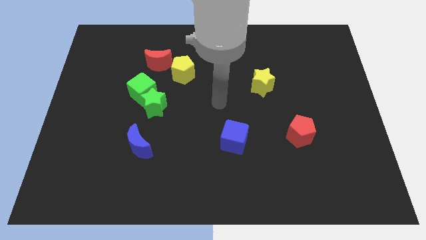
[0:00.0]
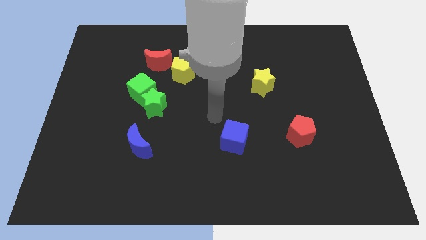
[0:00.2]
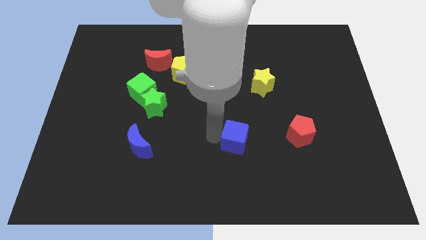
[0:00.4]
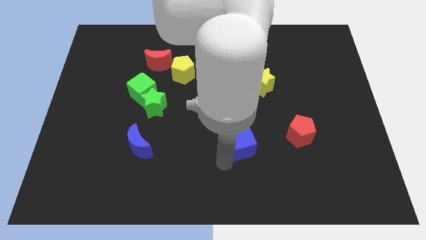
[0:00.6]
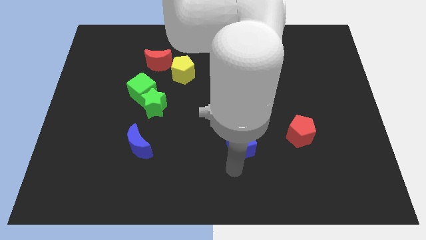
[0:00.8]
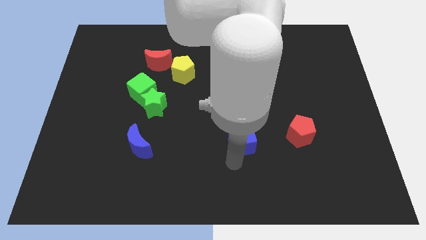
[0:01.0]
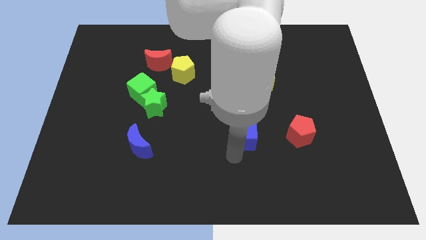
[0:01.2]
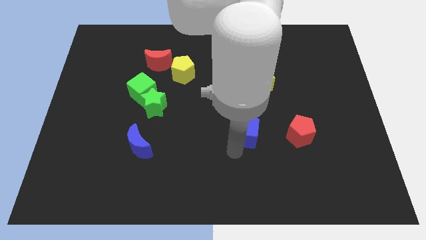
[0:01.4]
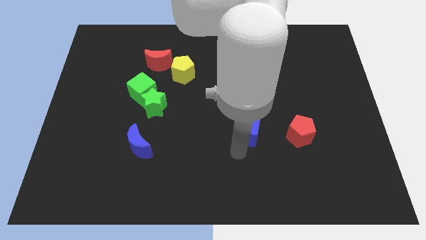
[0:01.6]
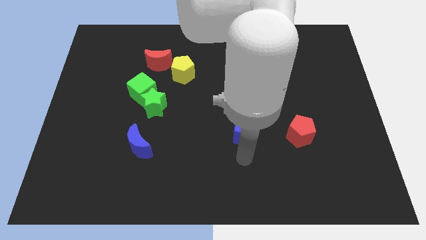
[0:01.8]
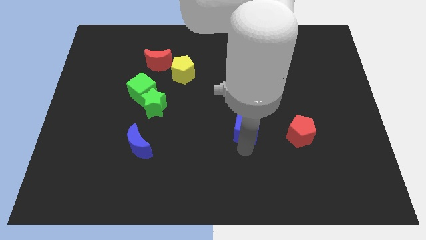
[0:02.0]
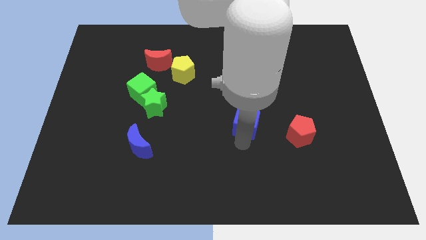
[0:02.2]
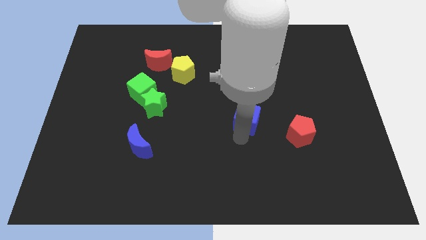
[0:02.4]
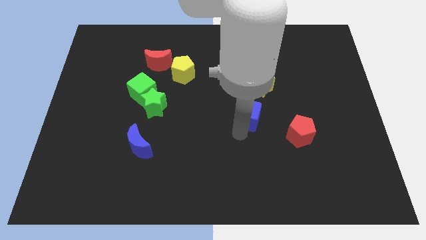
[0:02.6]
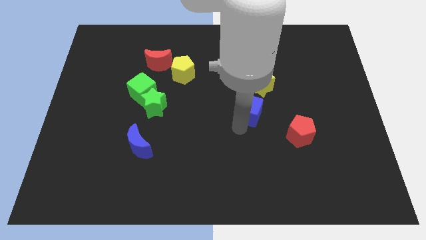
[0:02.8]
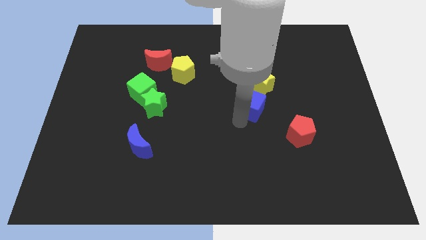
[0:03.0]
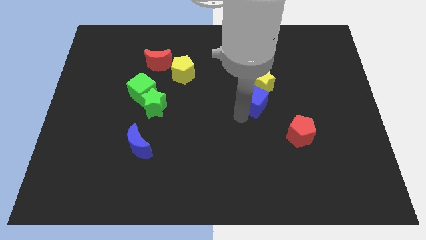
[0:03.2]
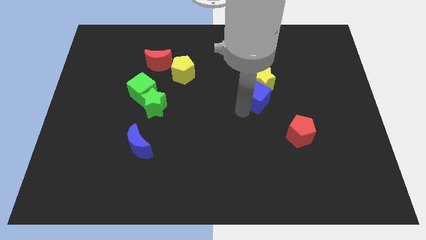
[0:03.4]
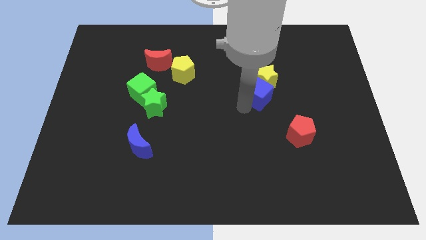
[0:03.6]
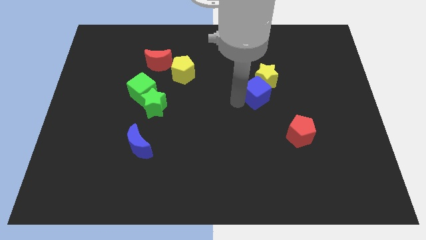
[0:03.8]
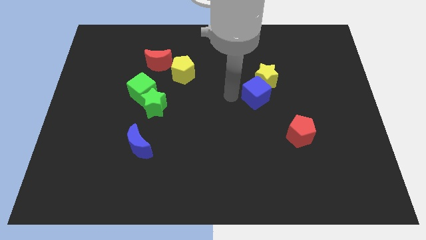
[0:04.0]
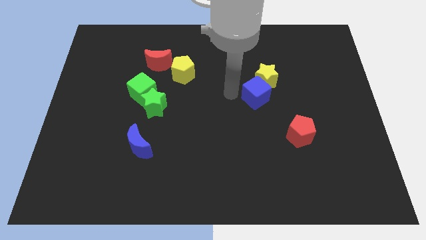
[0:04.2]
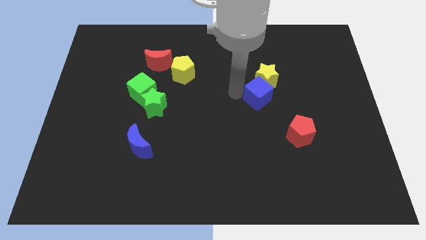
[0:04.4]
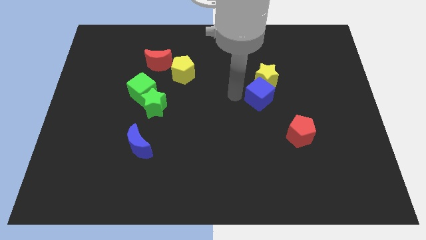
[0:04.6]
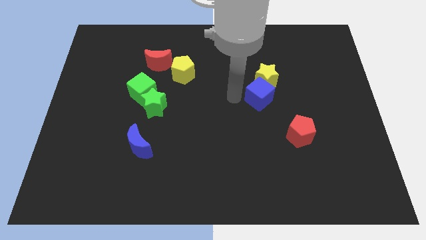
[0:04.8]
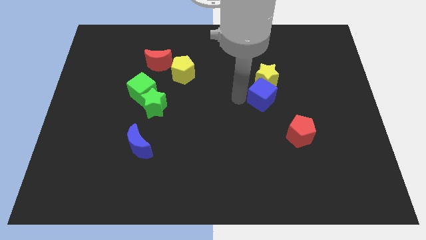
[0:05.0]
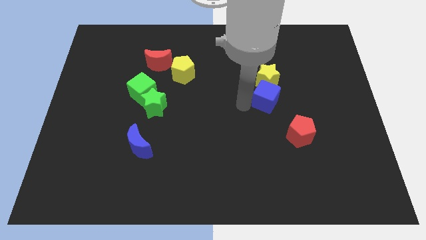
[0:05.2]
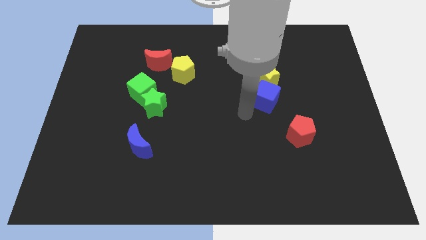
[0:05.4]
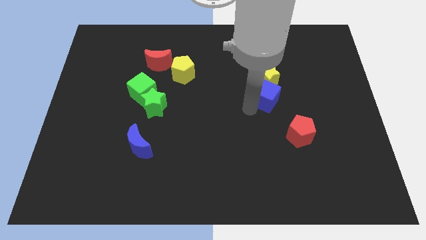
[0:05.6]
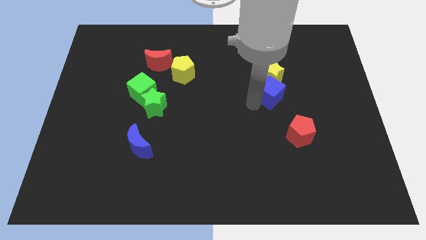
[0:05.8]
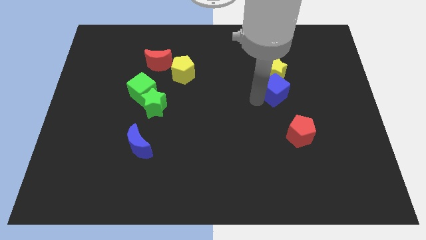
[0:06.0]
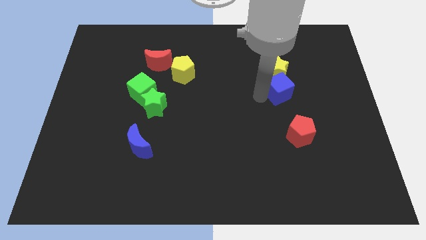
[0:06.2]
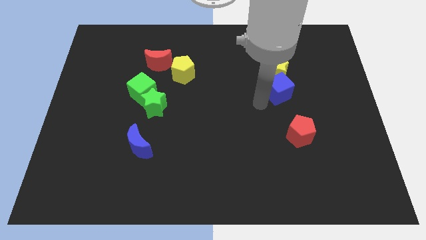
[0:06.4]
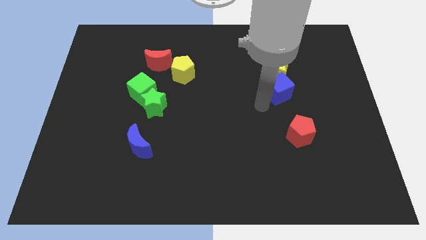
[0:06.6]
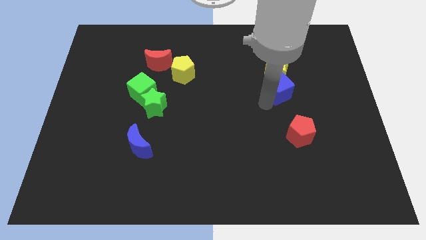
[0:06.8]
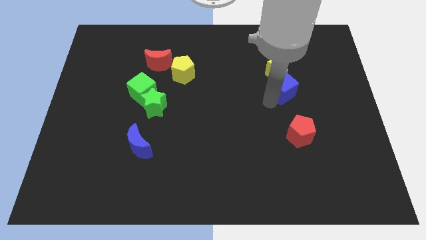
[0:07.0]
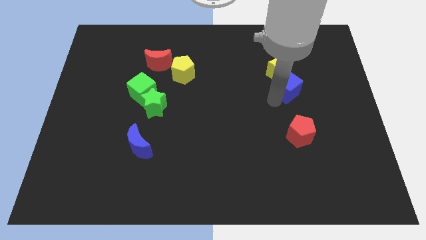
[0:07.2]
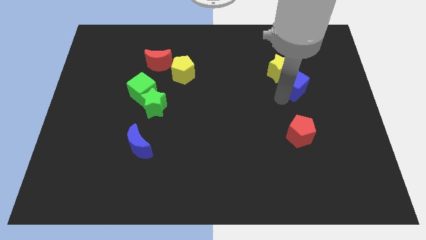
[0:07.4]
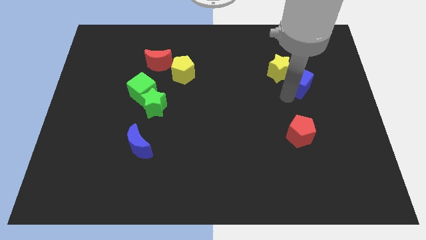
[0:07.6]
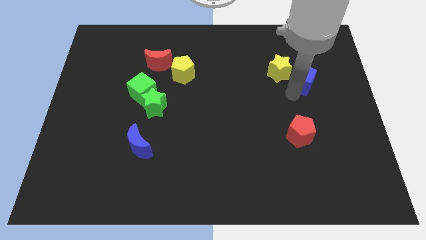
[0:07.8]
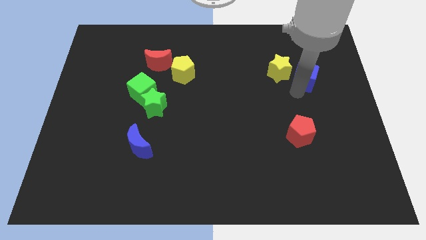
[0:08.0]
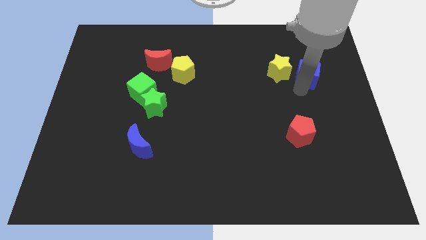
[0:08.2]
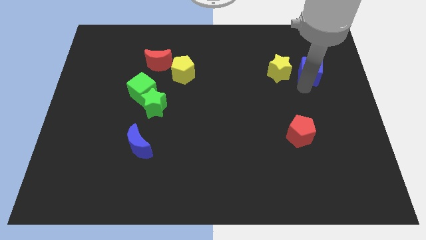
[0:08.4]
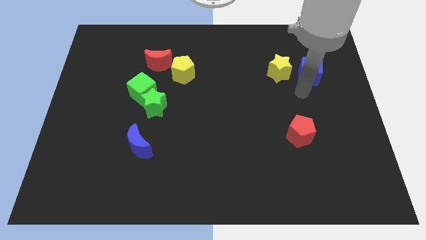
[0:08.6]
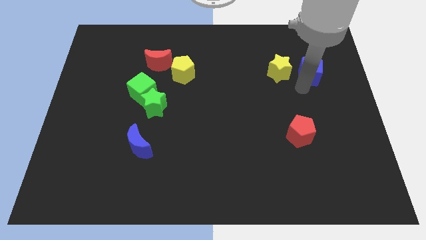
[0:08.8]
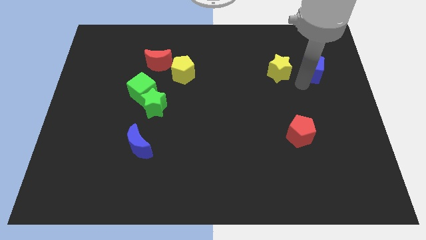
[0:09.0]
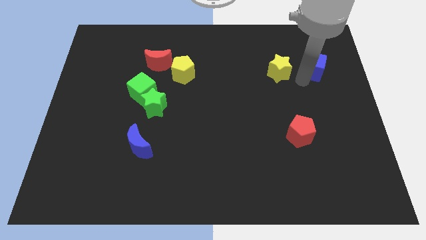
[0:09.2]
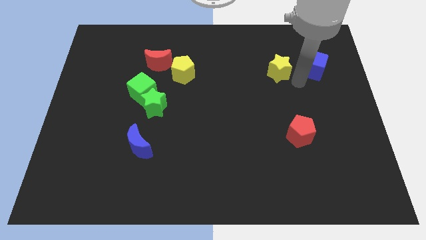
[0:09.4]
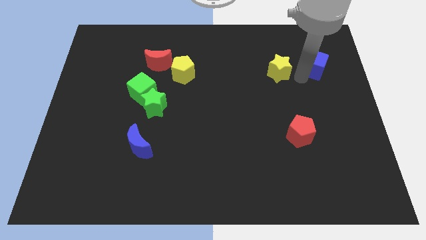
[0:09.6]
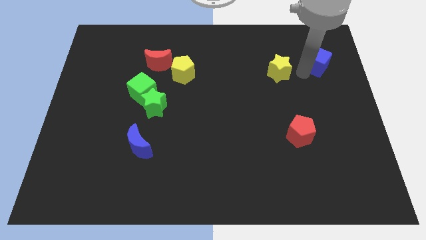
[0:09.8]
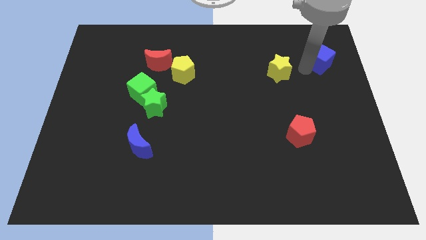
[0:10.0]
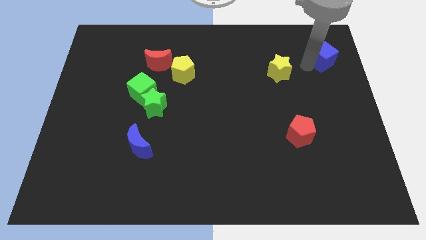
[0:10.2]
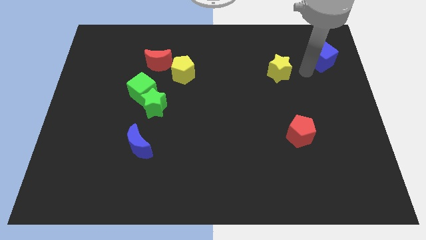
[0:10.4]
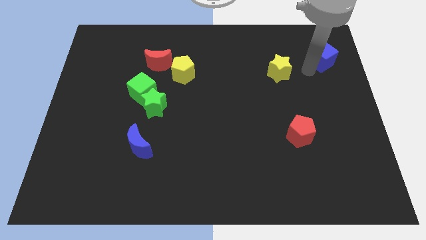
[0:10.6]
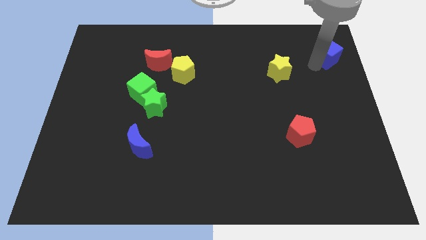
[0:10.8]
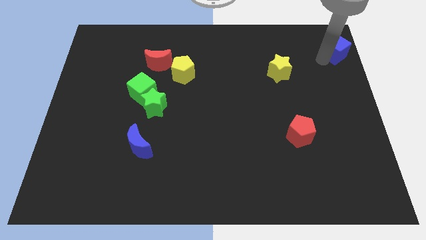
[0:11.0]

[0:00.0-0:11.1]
move the blue cube to the upper right corner

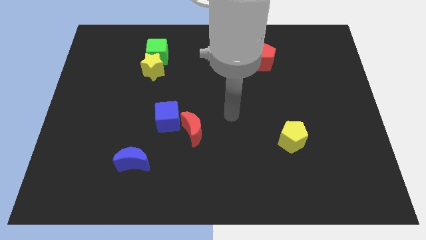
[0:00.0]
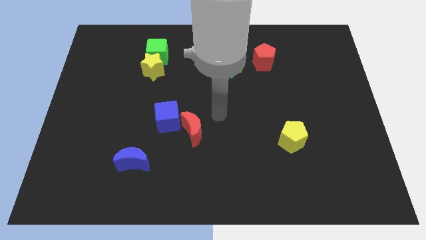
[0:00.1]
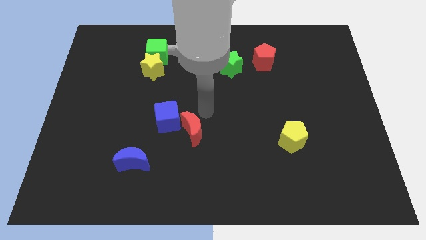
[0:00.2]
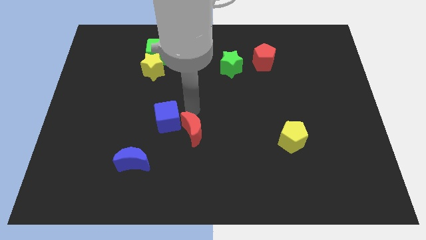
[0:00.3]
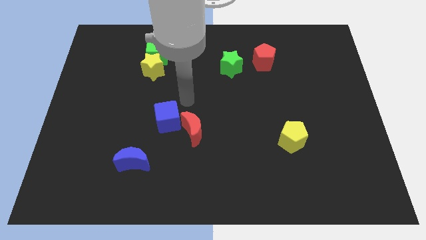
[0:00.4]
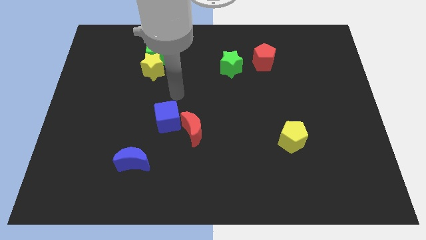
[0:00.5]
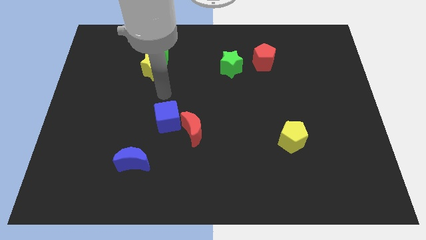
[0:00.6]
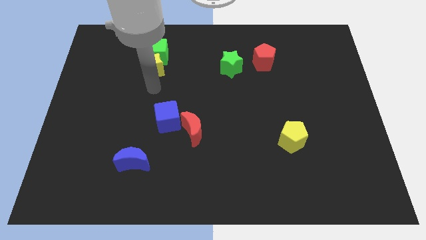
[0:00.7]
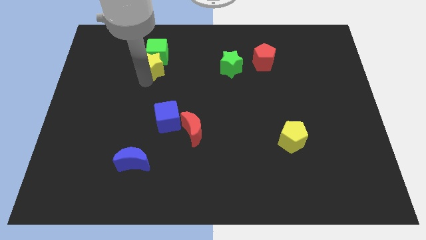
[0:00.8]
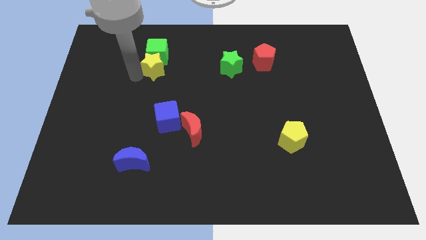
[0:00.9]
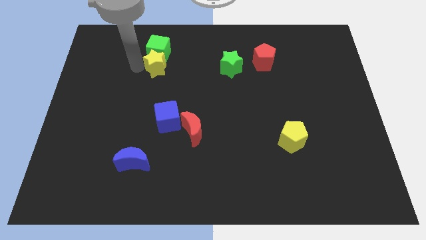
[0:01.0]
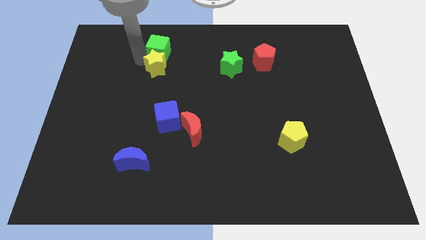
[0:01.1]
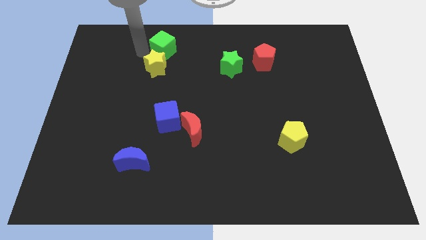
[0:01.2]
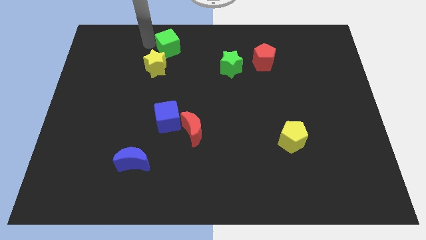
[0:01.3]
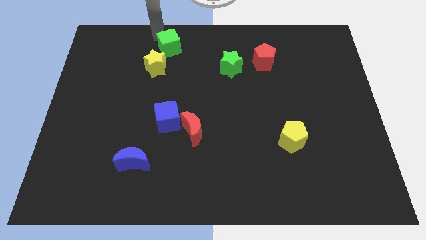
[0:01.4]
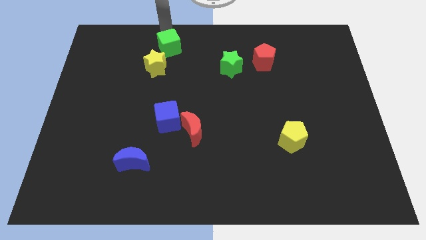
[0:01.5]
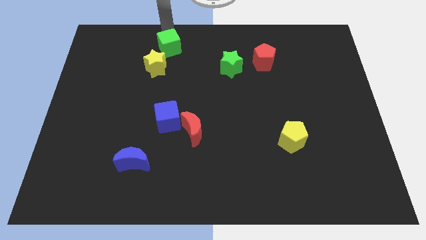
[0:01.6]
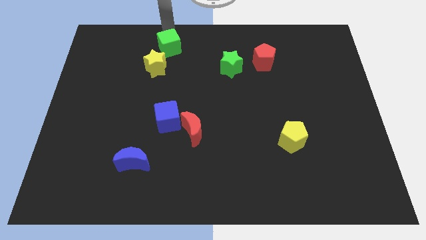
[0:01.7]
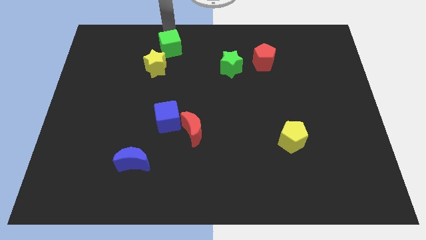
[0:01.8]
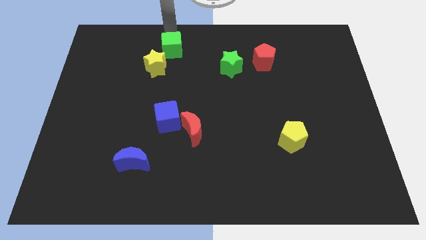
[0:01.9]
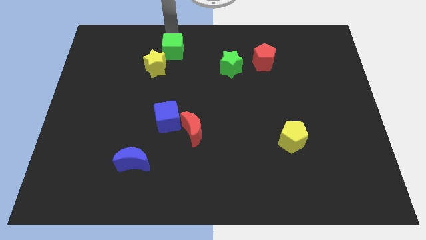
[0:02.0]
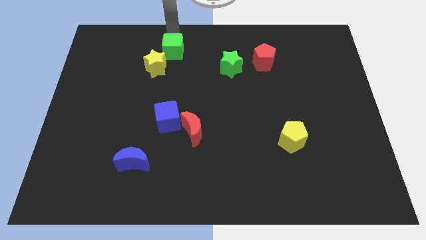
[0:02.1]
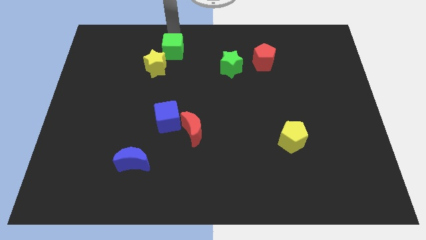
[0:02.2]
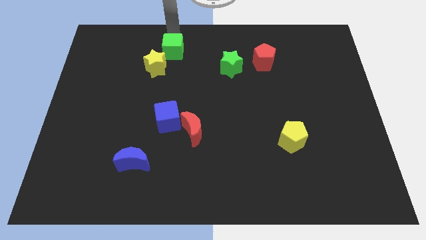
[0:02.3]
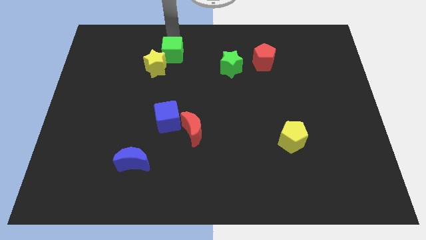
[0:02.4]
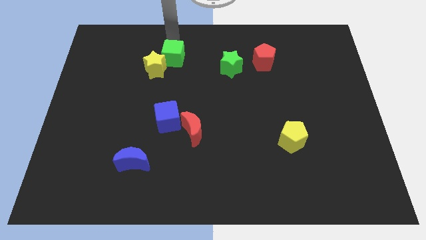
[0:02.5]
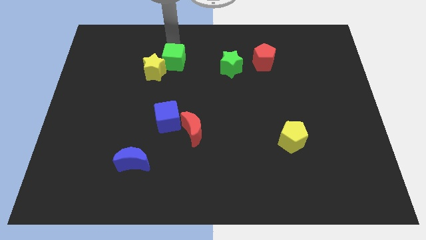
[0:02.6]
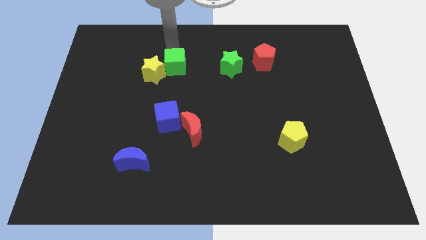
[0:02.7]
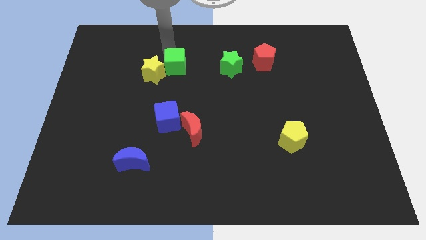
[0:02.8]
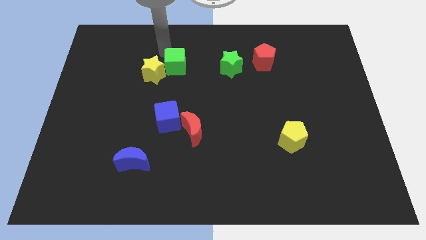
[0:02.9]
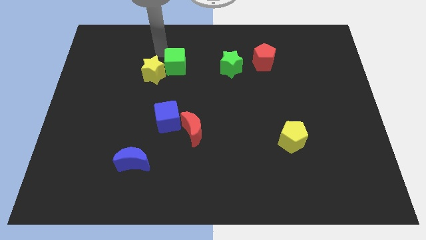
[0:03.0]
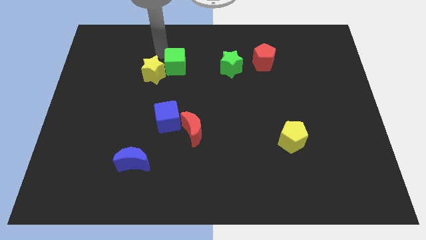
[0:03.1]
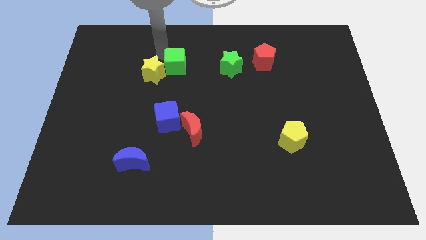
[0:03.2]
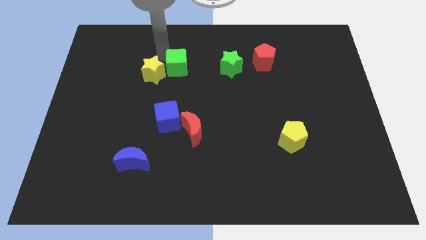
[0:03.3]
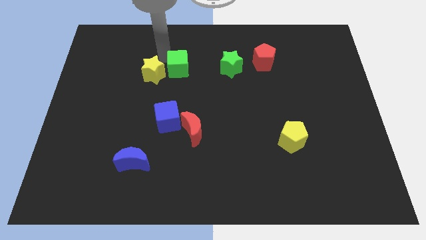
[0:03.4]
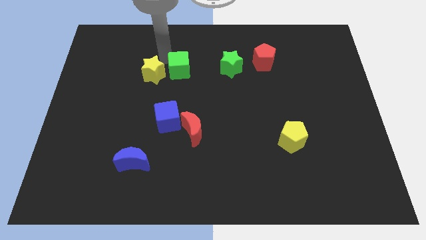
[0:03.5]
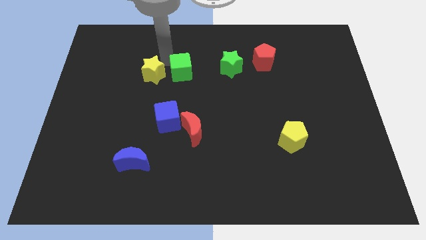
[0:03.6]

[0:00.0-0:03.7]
put the green cube to the center of the board
